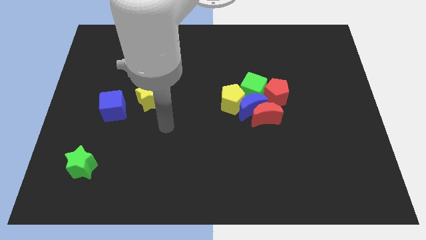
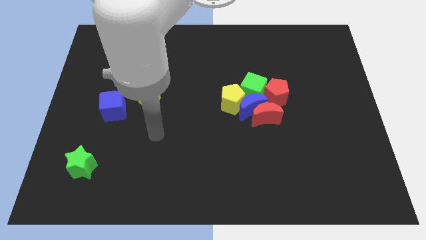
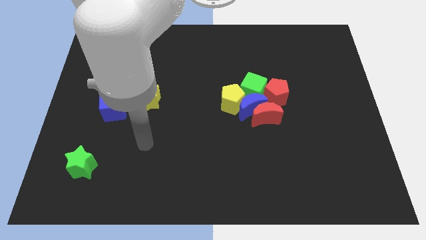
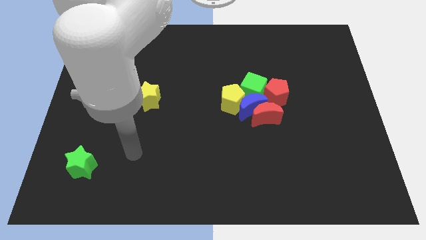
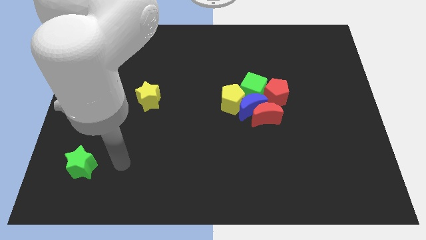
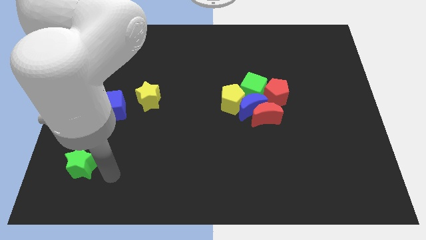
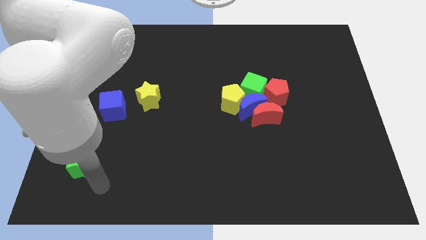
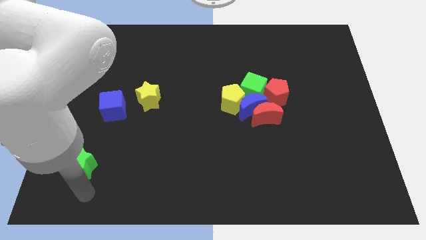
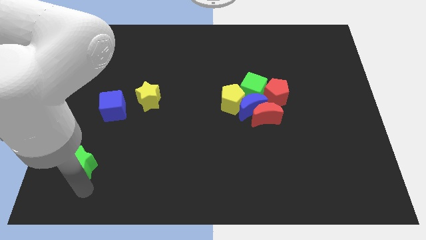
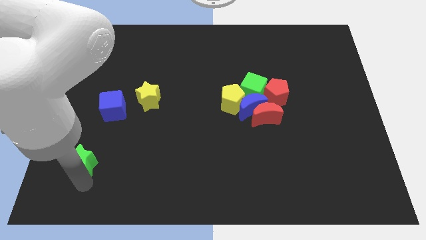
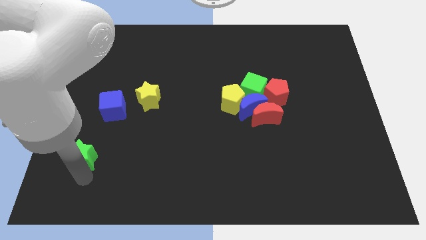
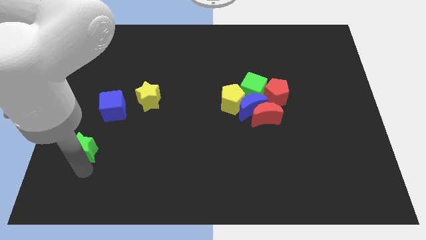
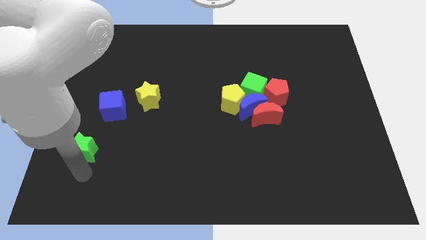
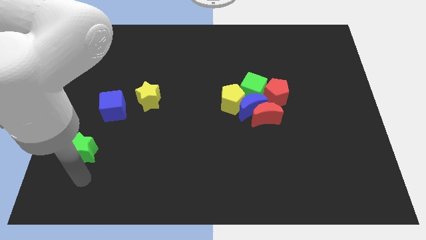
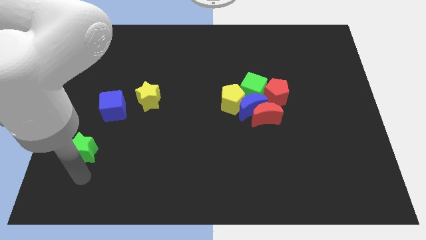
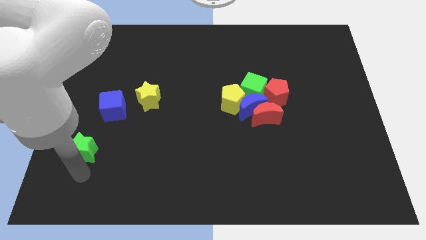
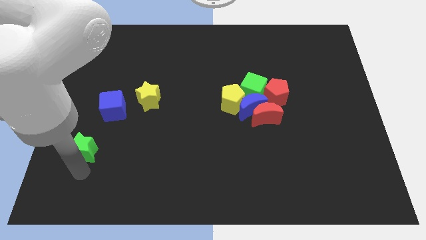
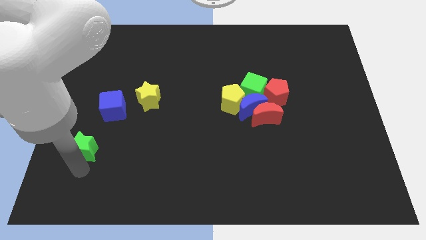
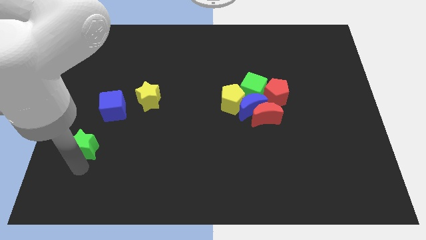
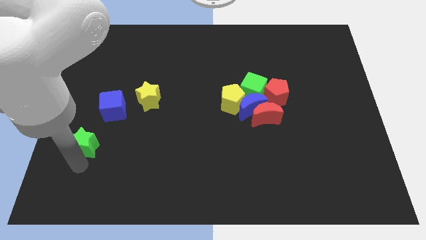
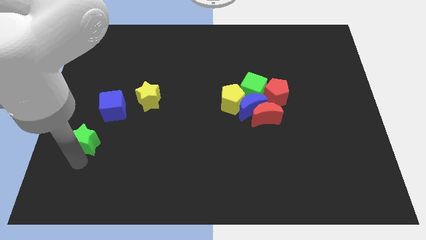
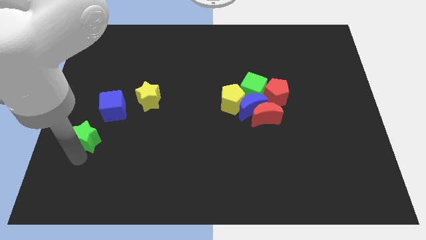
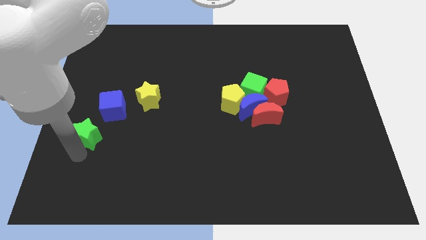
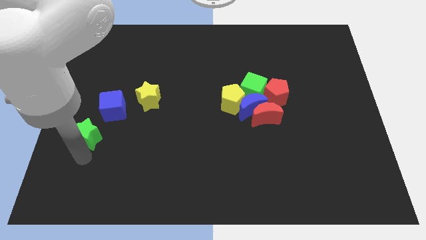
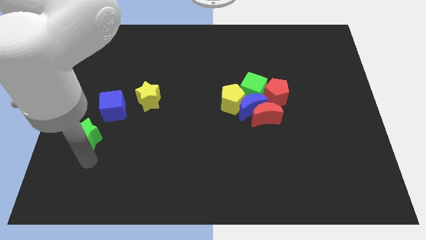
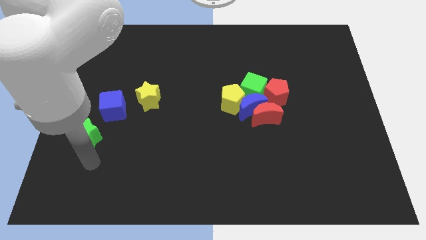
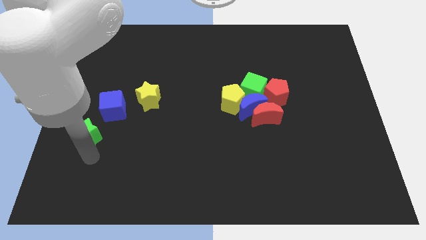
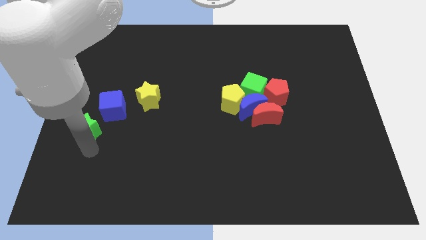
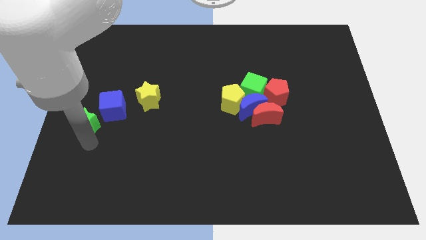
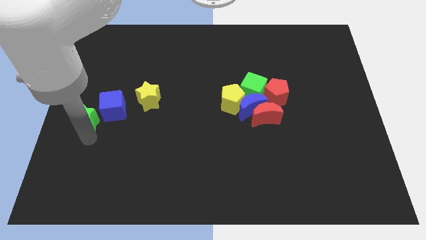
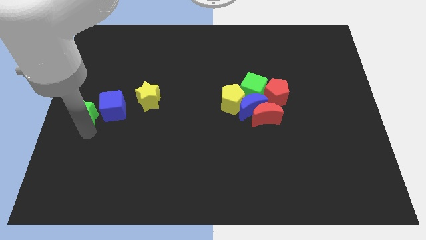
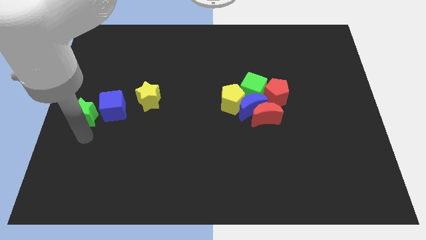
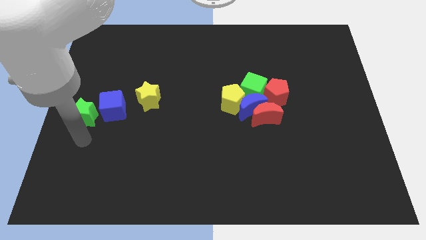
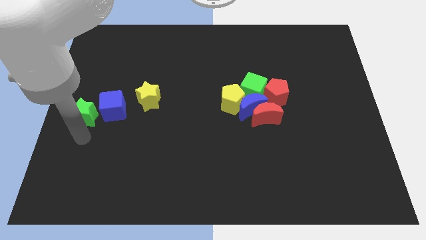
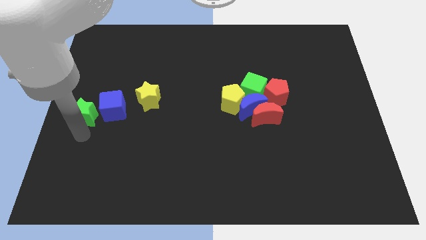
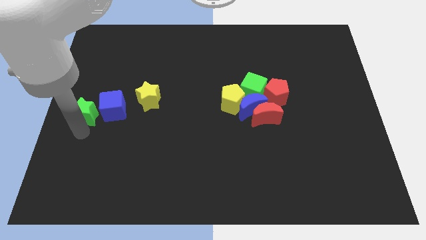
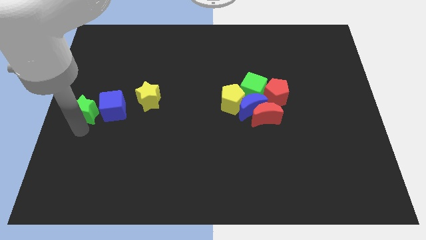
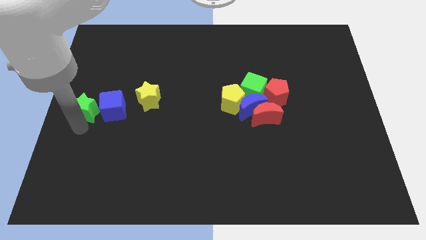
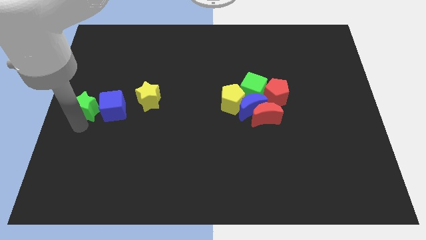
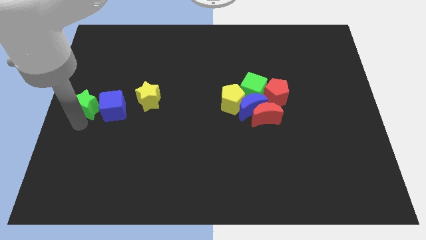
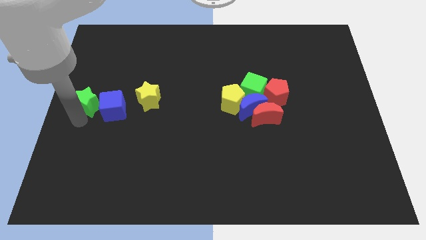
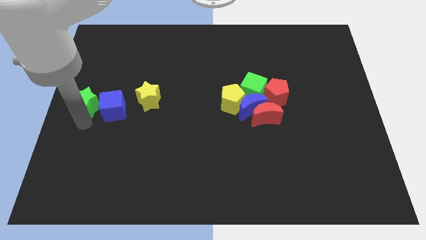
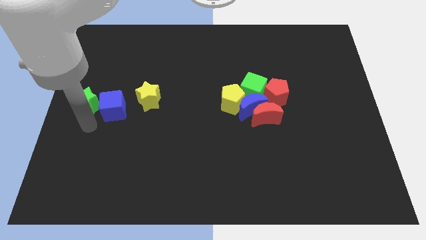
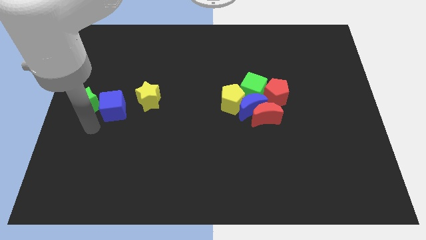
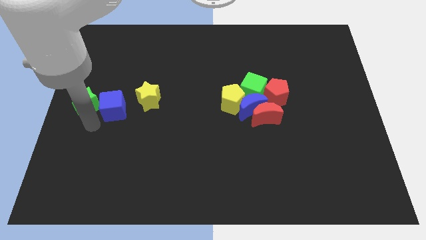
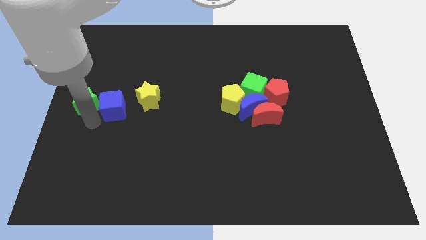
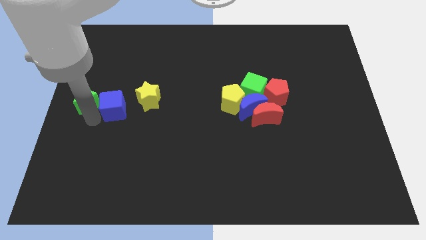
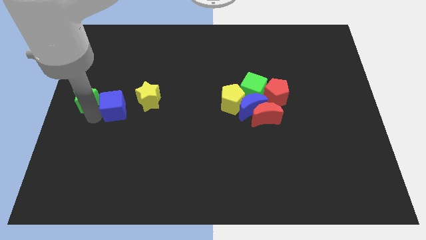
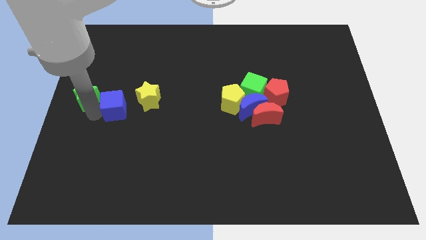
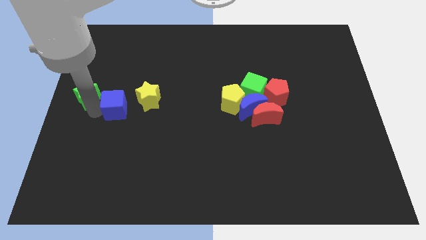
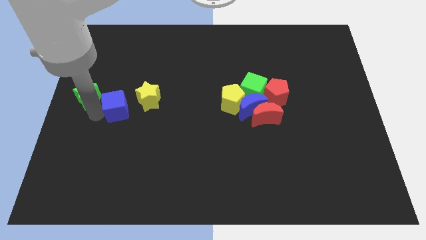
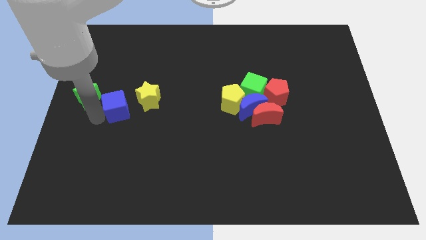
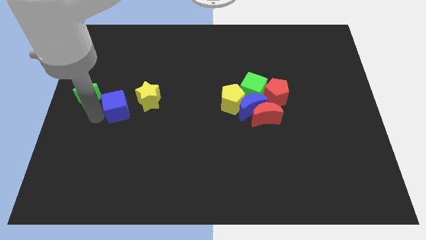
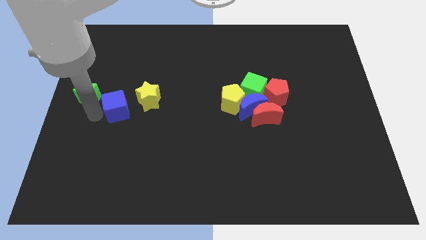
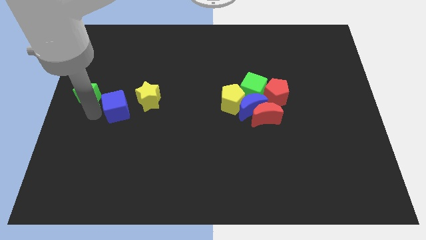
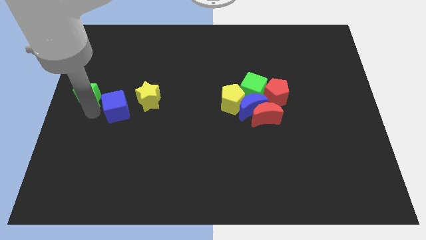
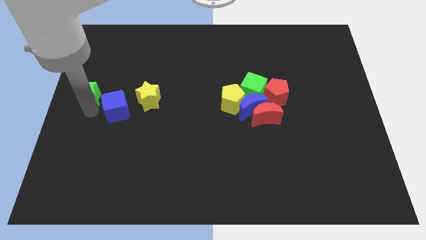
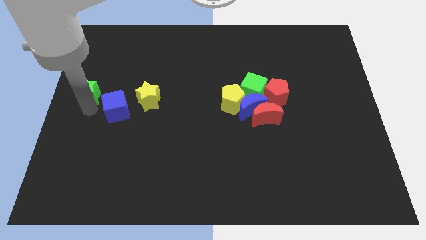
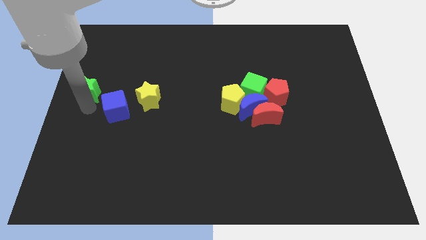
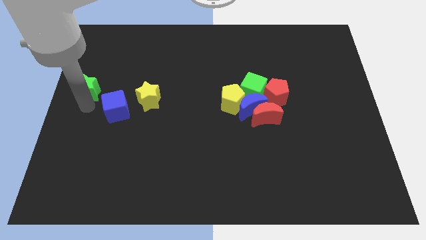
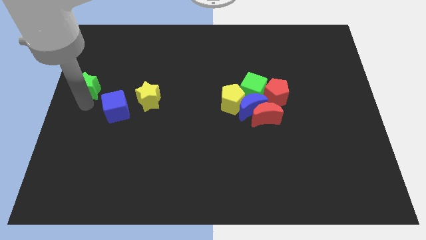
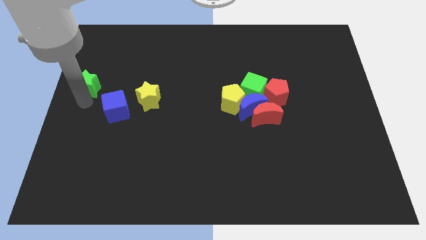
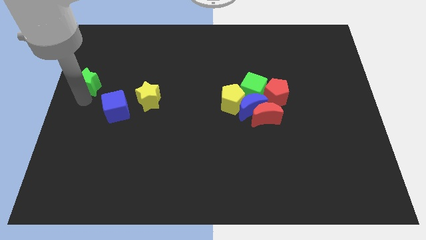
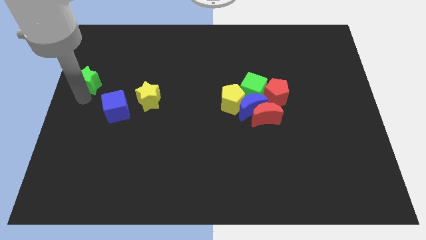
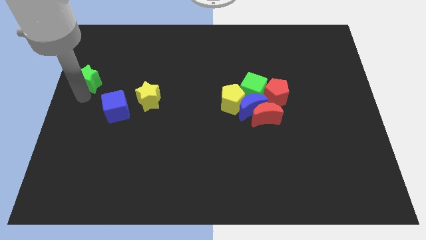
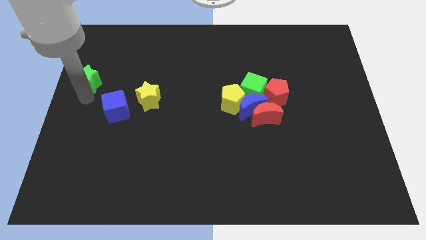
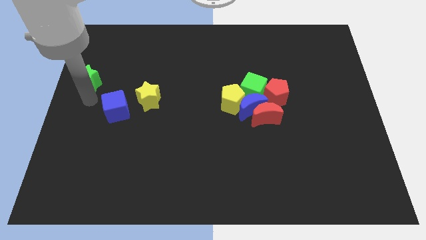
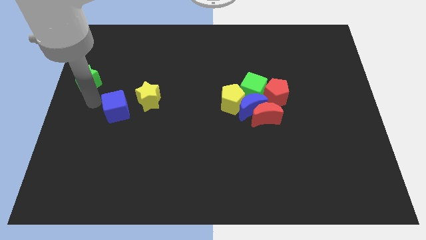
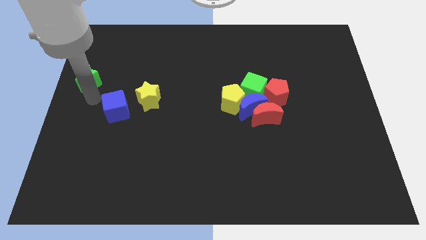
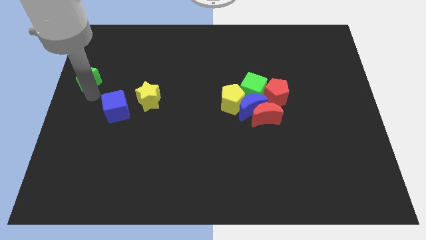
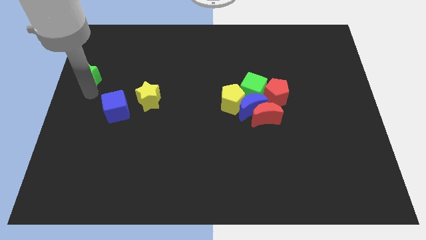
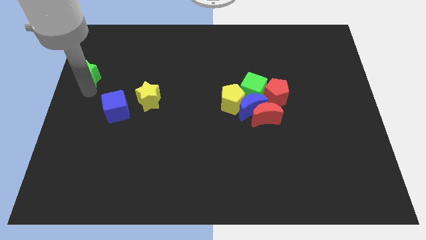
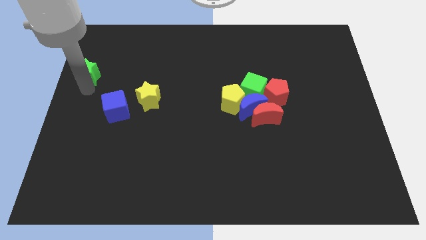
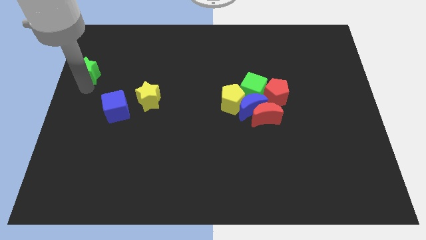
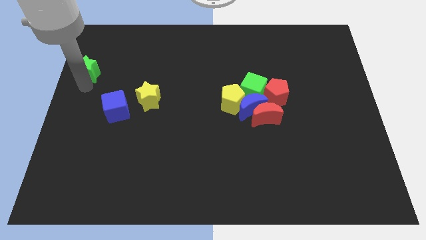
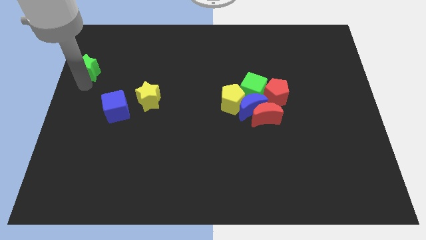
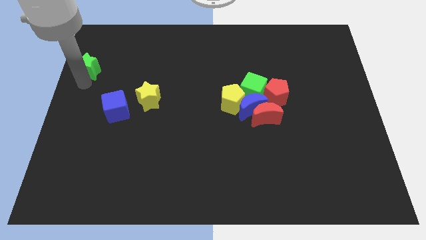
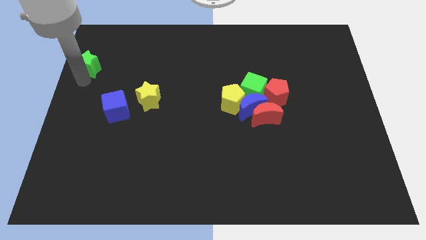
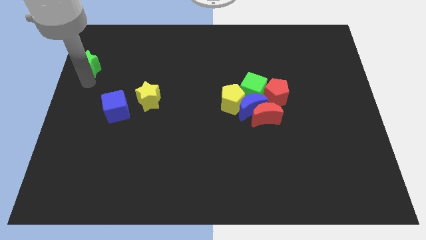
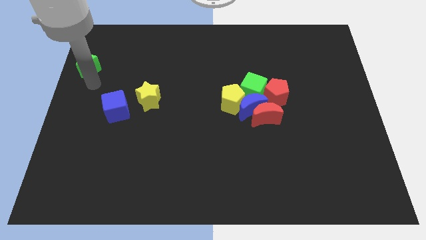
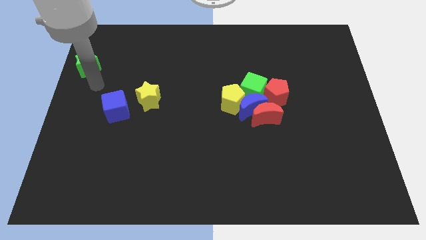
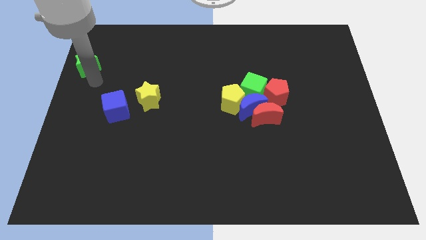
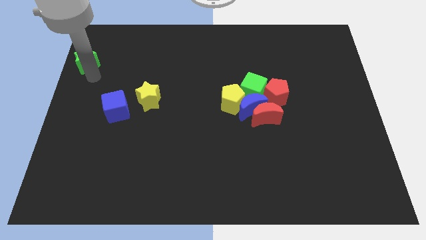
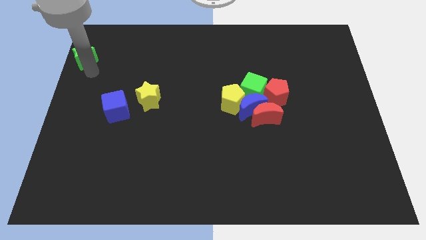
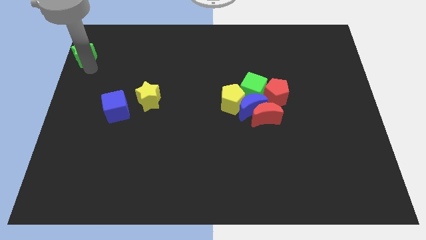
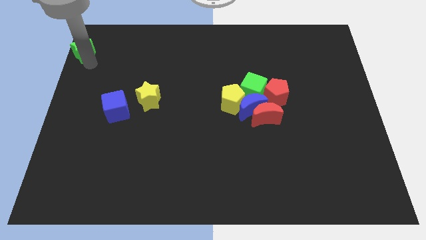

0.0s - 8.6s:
put the green star to the top left corner
